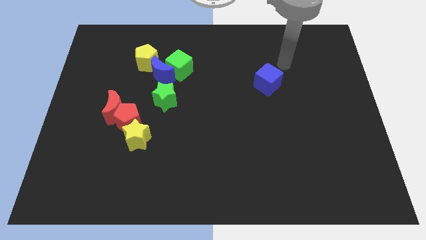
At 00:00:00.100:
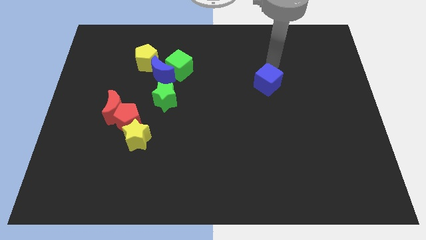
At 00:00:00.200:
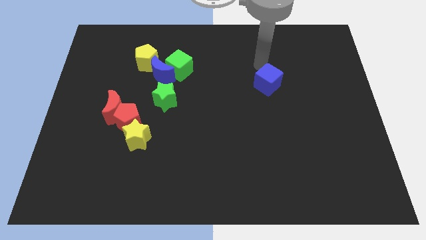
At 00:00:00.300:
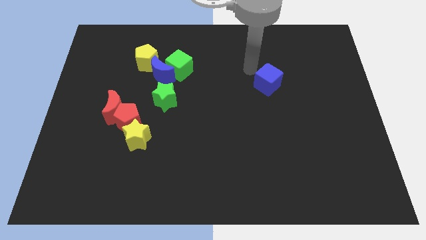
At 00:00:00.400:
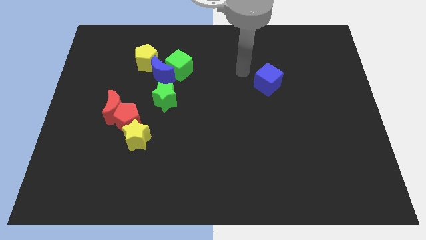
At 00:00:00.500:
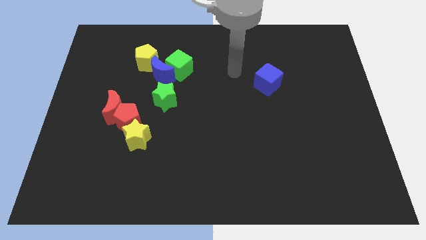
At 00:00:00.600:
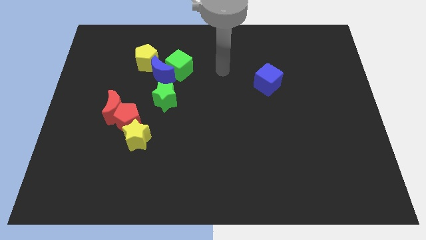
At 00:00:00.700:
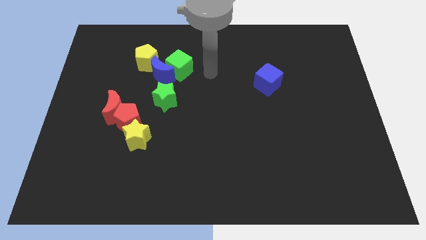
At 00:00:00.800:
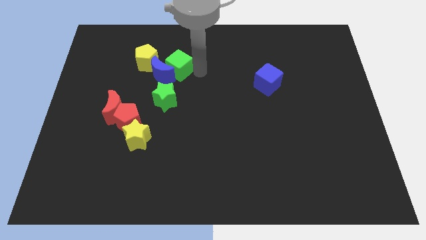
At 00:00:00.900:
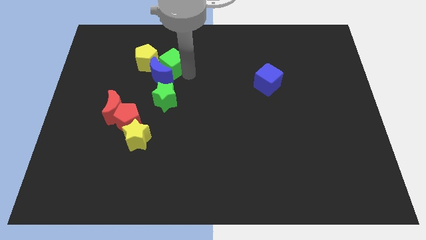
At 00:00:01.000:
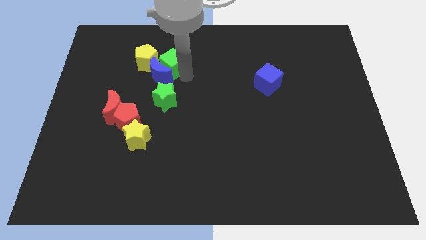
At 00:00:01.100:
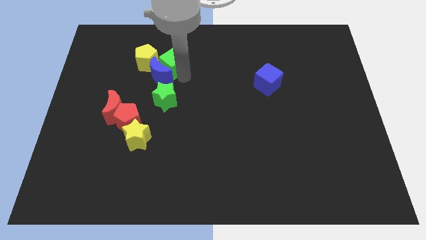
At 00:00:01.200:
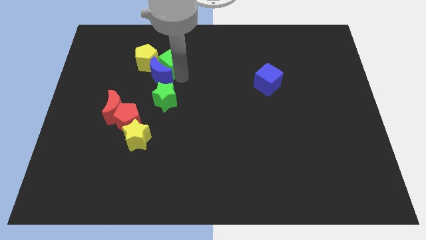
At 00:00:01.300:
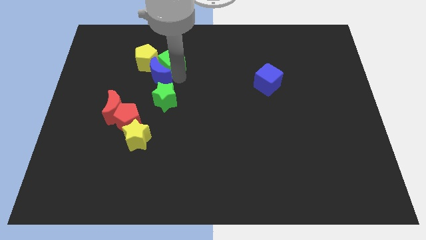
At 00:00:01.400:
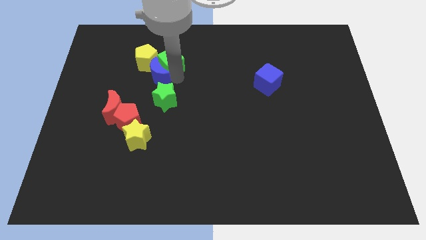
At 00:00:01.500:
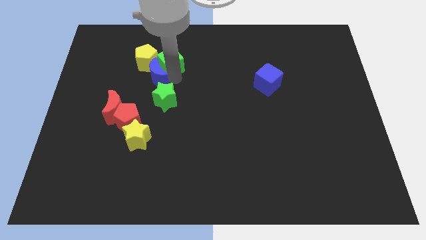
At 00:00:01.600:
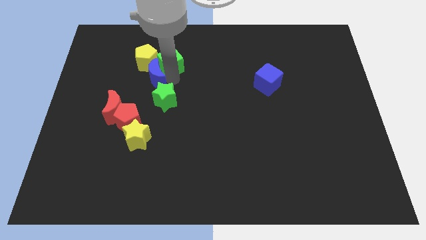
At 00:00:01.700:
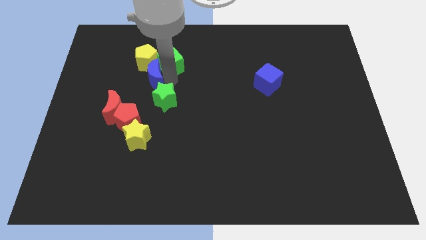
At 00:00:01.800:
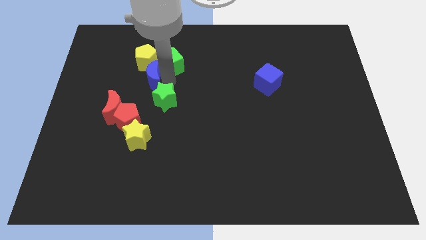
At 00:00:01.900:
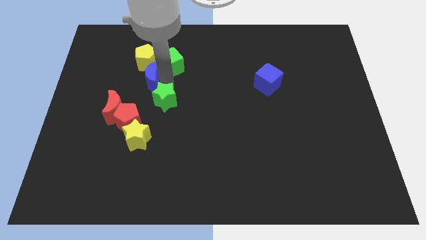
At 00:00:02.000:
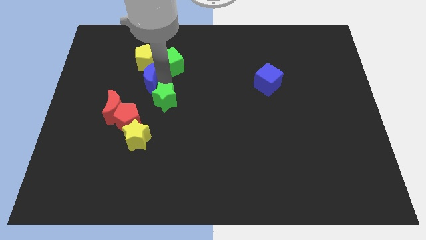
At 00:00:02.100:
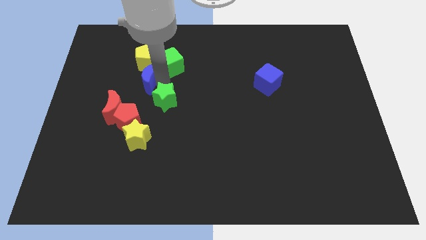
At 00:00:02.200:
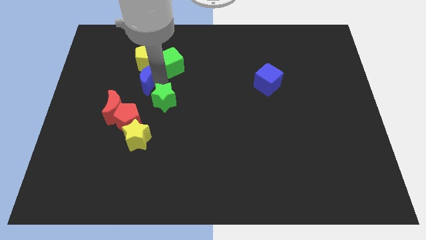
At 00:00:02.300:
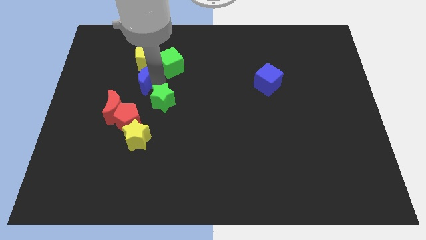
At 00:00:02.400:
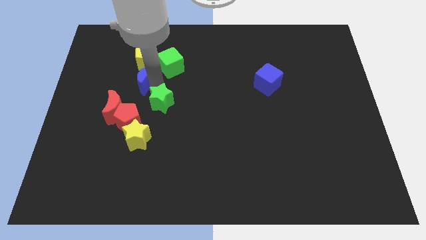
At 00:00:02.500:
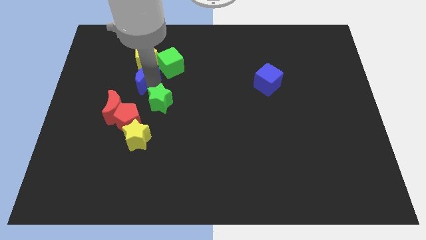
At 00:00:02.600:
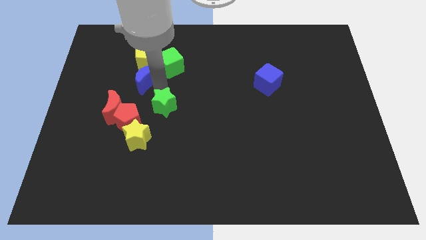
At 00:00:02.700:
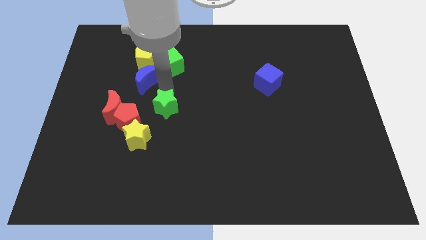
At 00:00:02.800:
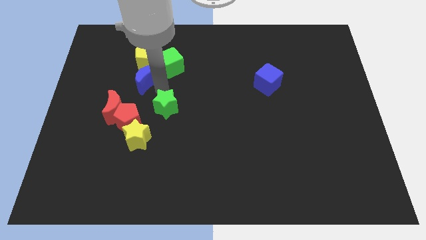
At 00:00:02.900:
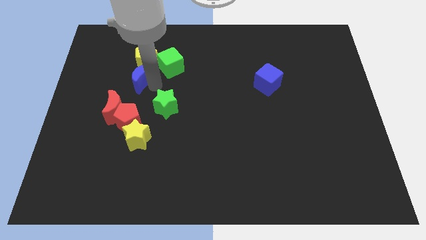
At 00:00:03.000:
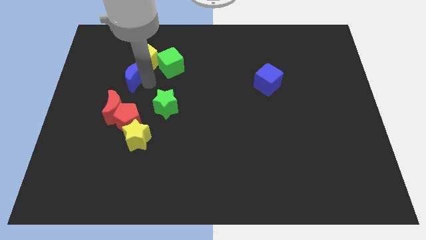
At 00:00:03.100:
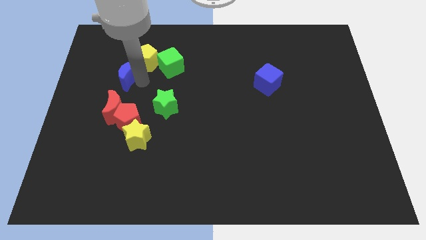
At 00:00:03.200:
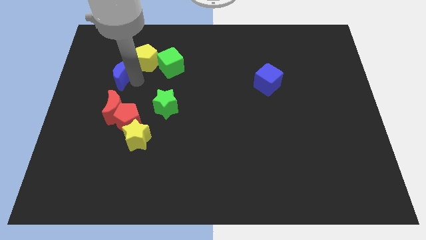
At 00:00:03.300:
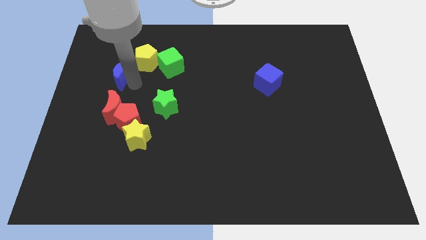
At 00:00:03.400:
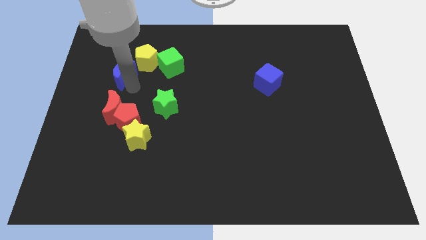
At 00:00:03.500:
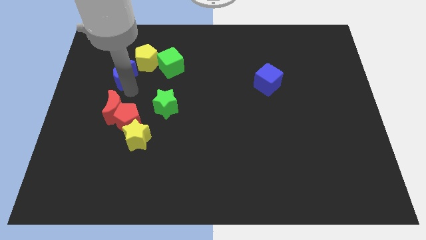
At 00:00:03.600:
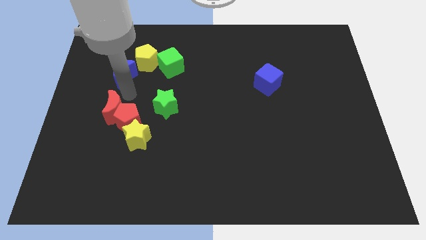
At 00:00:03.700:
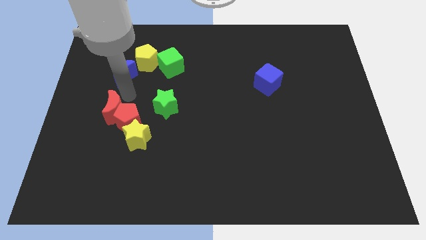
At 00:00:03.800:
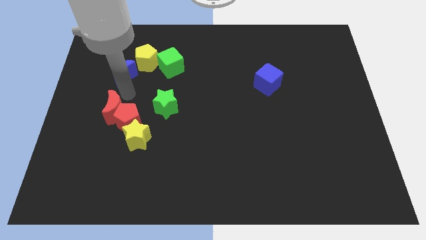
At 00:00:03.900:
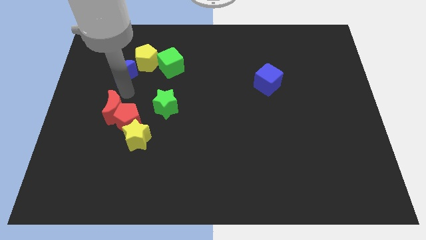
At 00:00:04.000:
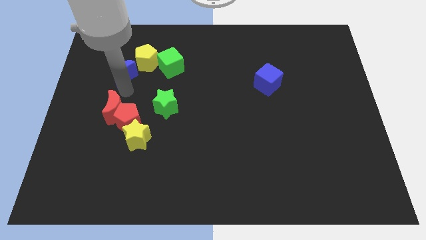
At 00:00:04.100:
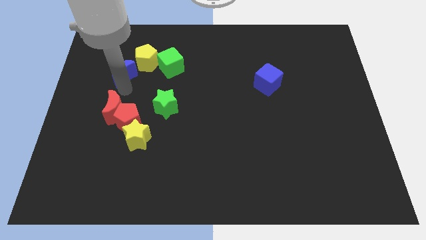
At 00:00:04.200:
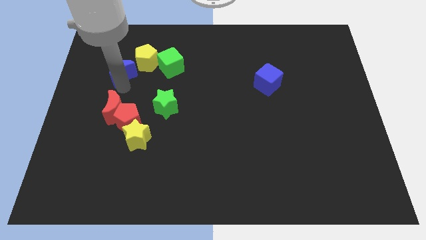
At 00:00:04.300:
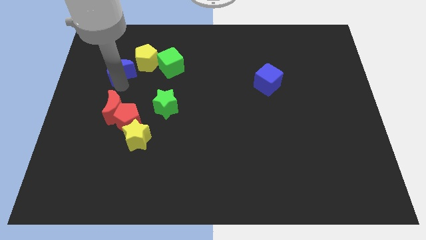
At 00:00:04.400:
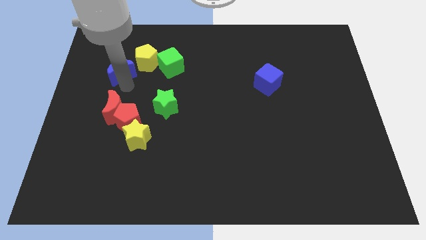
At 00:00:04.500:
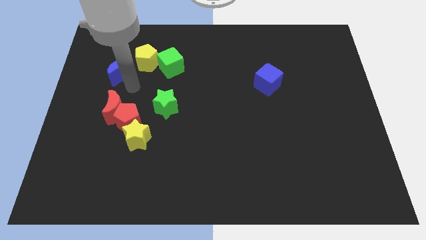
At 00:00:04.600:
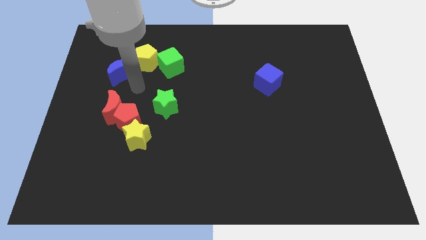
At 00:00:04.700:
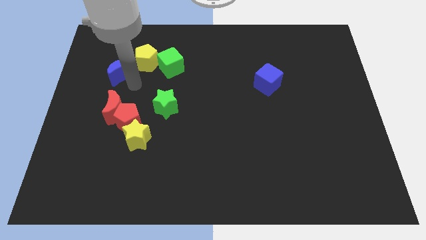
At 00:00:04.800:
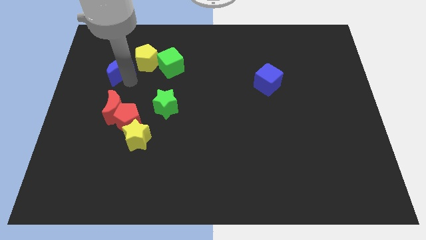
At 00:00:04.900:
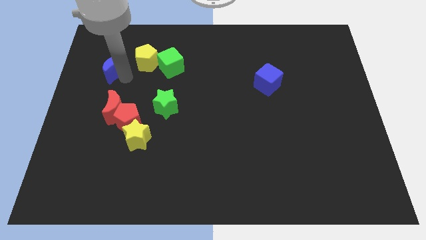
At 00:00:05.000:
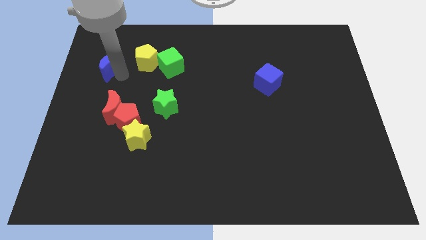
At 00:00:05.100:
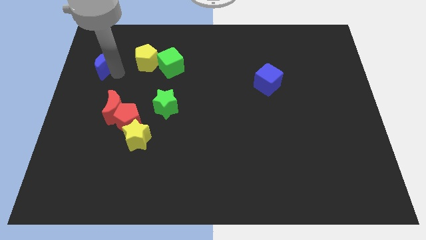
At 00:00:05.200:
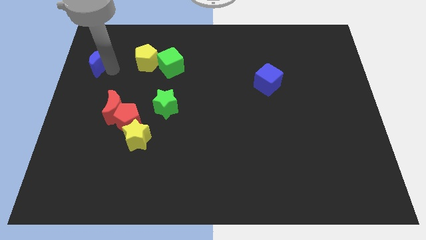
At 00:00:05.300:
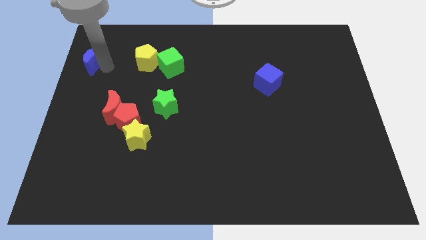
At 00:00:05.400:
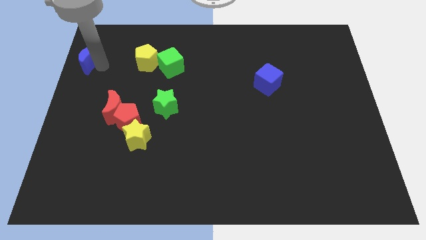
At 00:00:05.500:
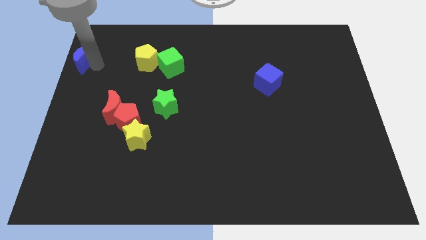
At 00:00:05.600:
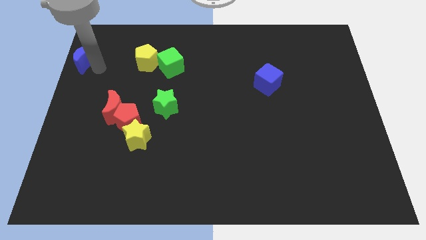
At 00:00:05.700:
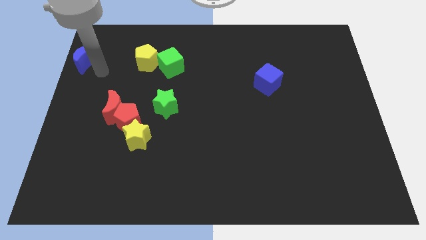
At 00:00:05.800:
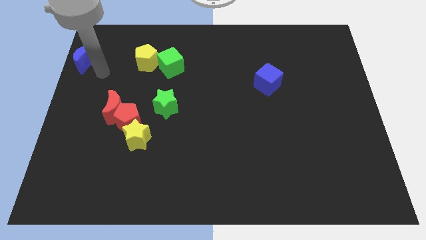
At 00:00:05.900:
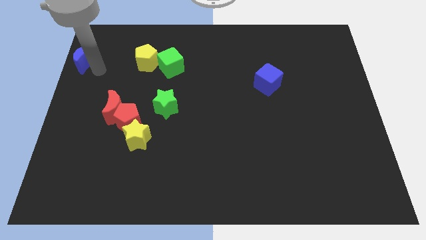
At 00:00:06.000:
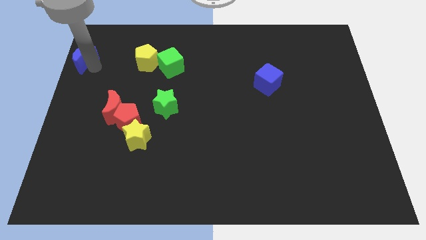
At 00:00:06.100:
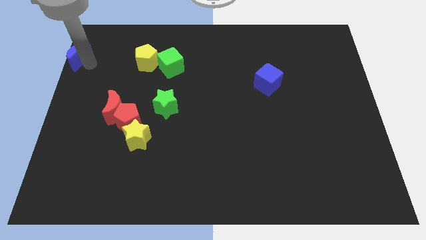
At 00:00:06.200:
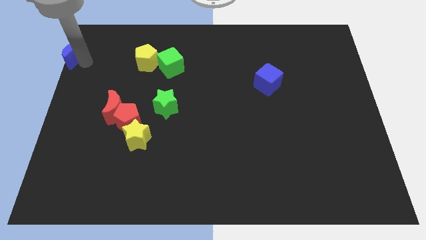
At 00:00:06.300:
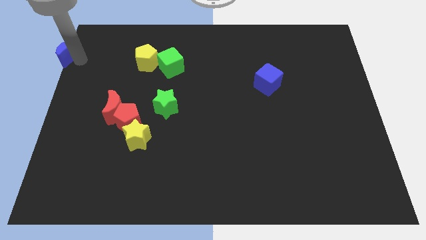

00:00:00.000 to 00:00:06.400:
push the blue moon to the upper left corner
